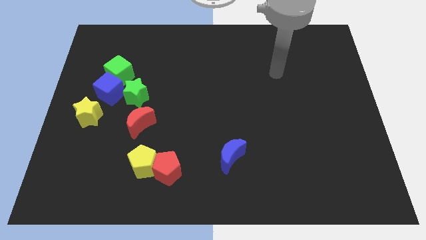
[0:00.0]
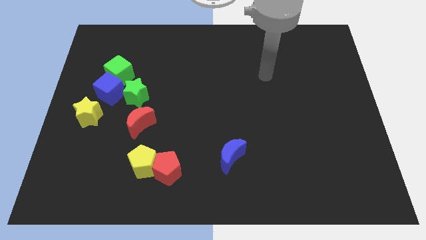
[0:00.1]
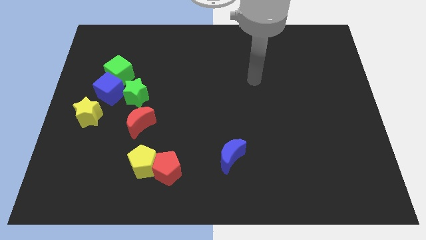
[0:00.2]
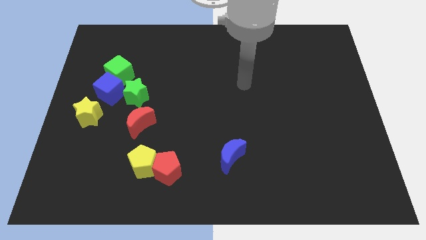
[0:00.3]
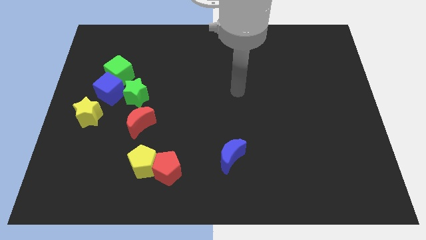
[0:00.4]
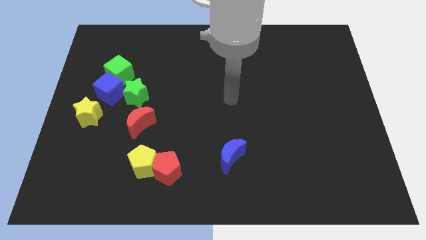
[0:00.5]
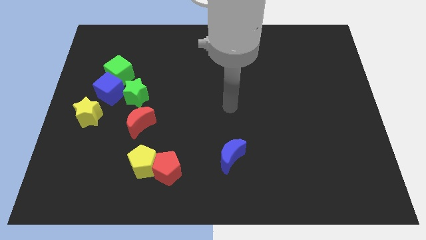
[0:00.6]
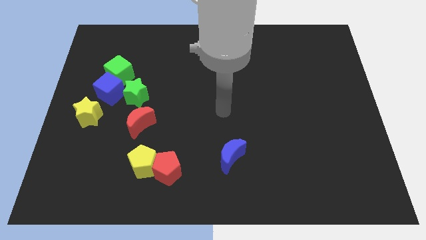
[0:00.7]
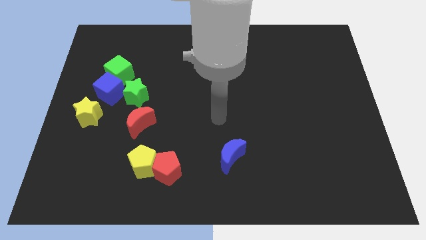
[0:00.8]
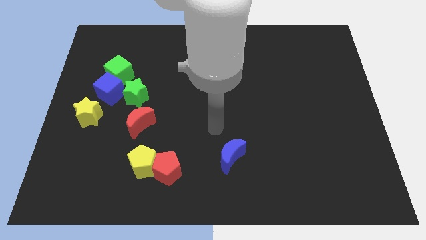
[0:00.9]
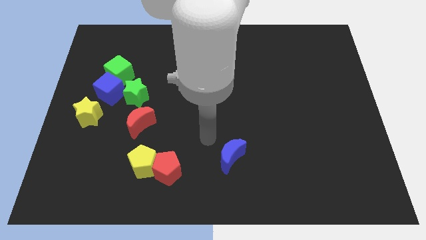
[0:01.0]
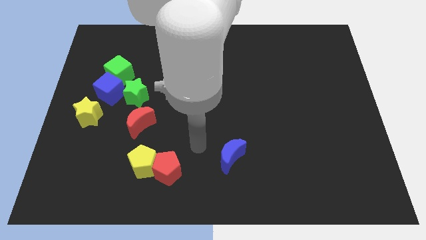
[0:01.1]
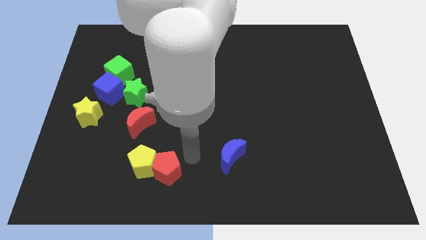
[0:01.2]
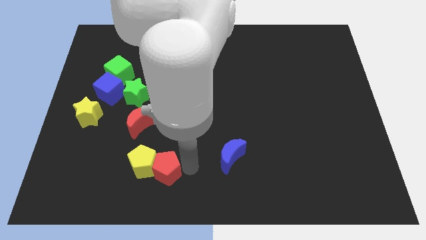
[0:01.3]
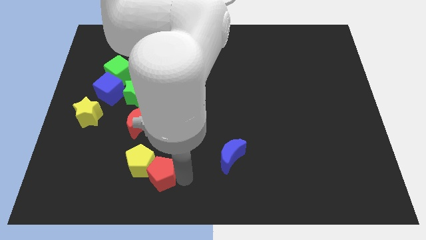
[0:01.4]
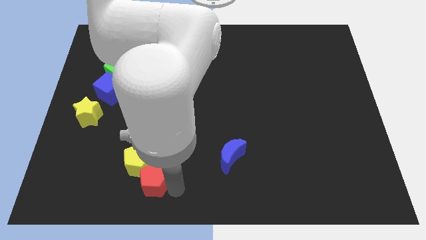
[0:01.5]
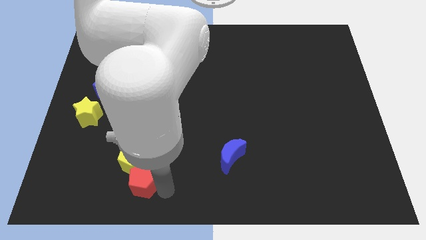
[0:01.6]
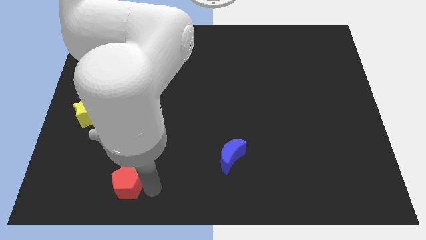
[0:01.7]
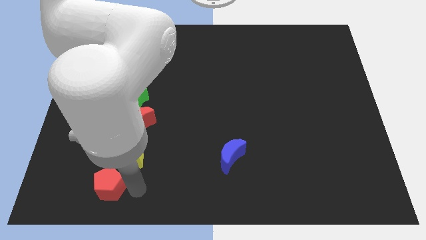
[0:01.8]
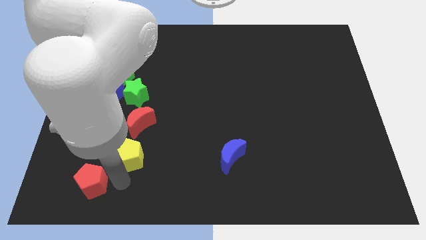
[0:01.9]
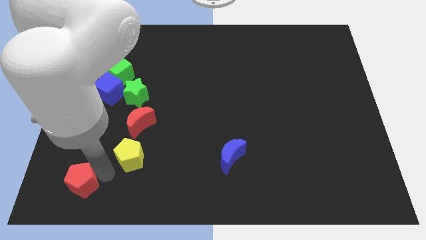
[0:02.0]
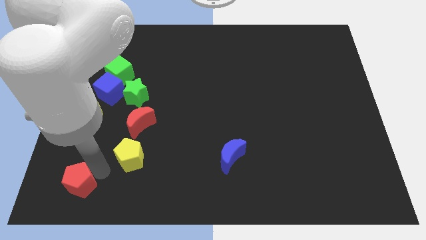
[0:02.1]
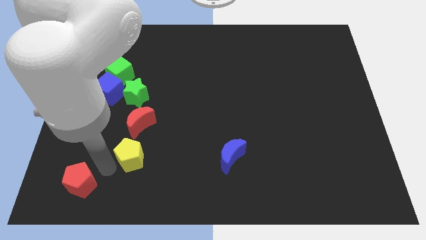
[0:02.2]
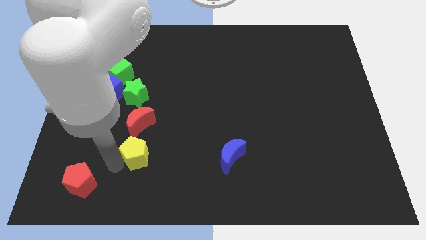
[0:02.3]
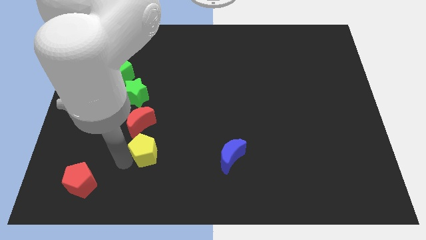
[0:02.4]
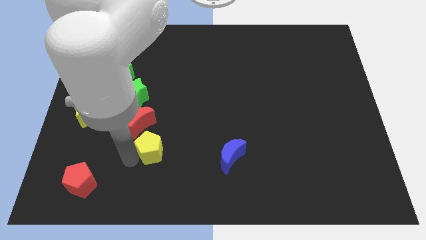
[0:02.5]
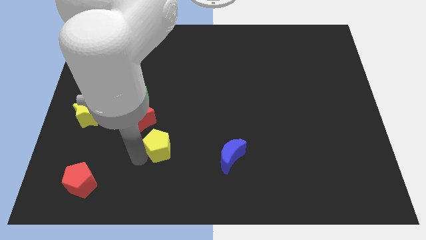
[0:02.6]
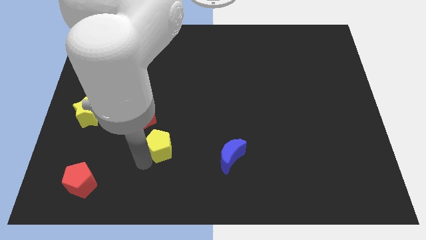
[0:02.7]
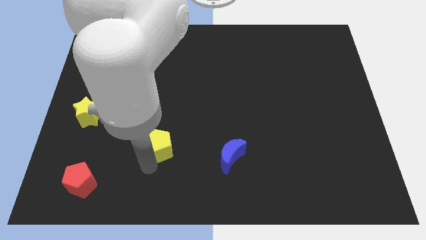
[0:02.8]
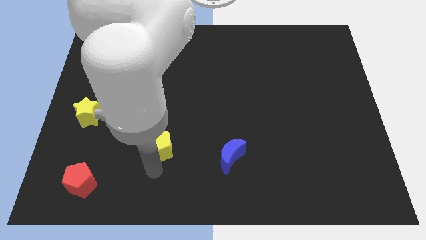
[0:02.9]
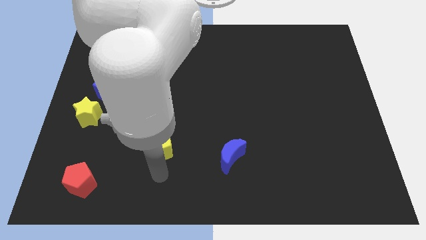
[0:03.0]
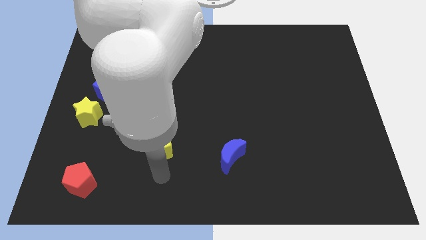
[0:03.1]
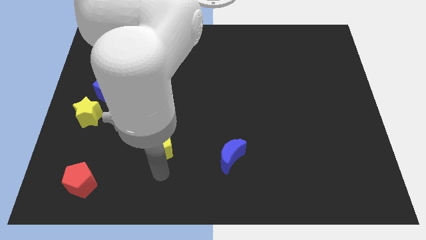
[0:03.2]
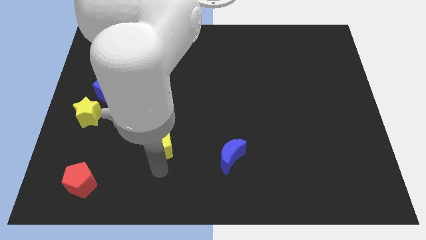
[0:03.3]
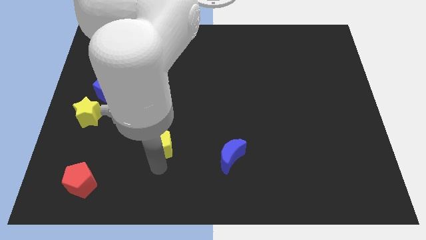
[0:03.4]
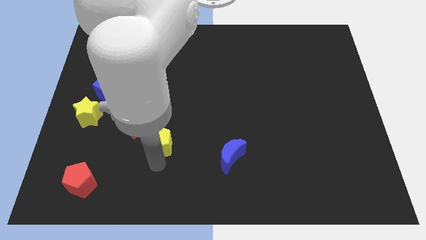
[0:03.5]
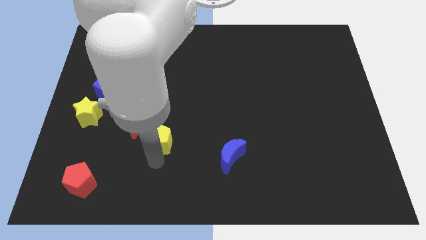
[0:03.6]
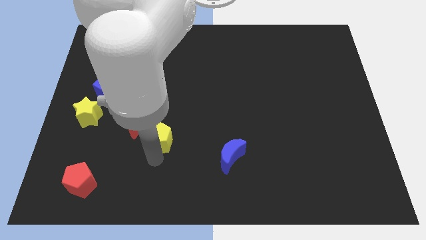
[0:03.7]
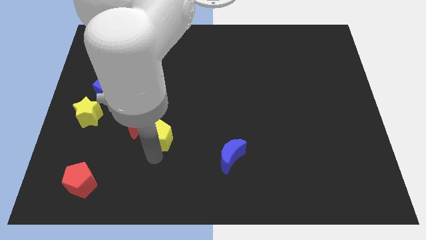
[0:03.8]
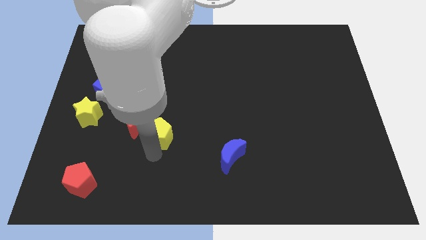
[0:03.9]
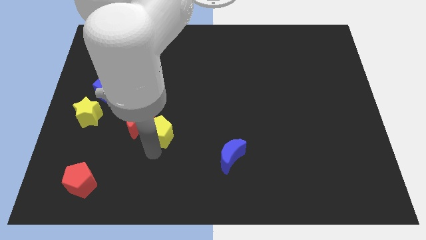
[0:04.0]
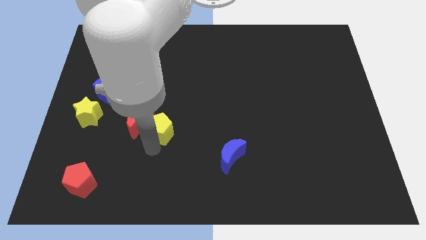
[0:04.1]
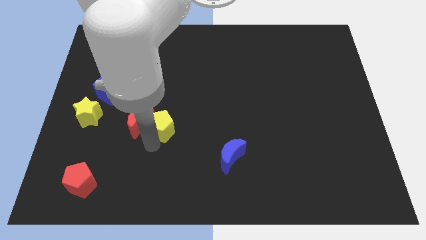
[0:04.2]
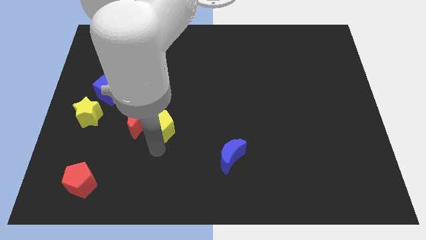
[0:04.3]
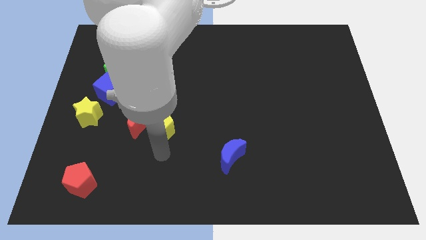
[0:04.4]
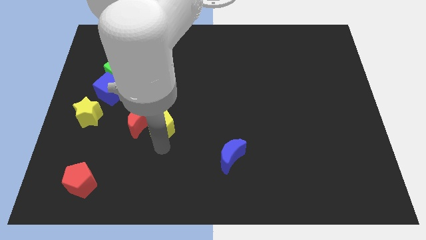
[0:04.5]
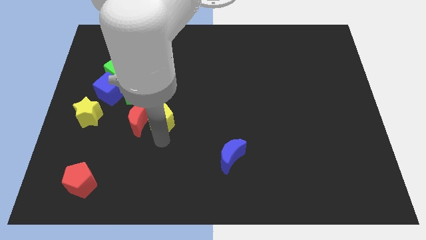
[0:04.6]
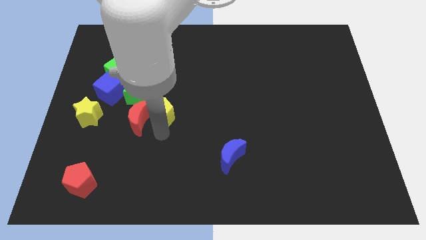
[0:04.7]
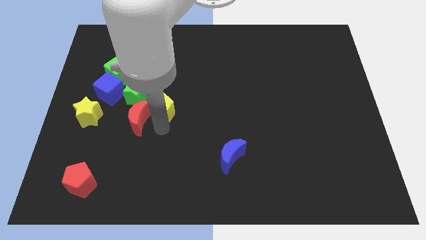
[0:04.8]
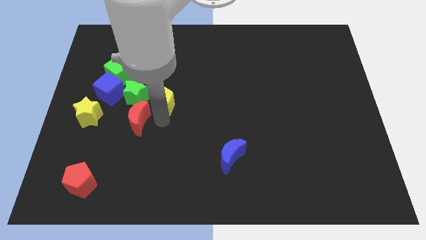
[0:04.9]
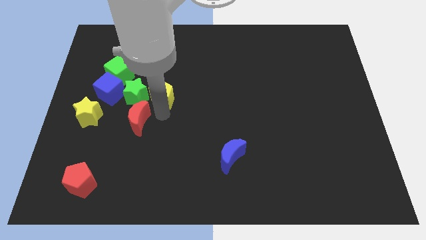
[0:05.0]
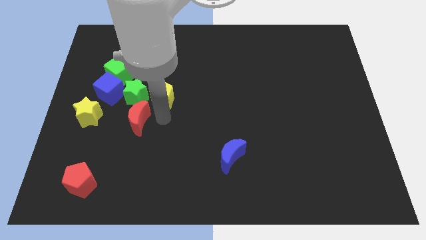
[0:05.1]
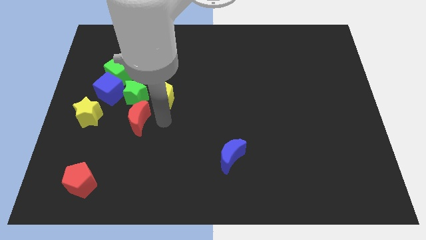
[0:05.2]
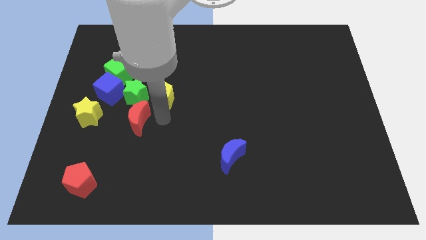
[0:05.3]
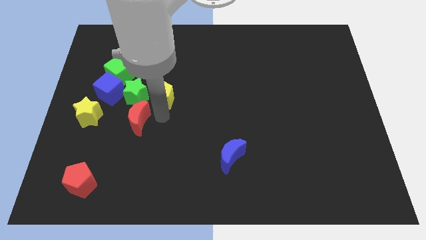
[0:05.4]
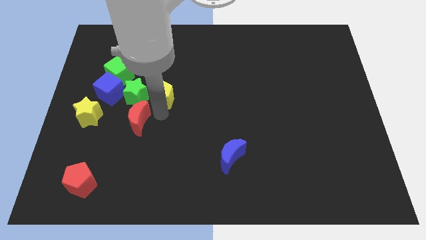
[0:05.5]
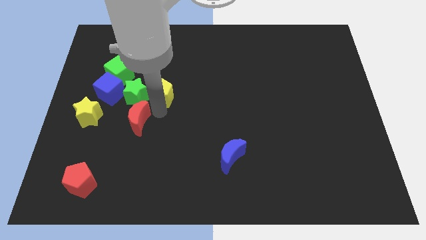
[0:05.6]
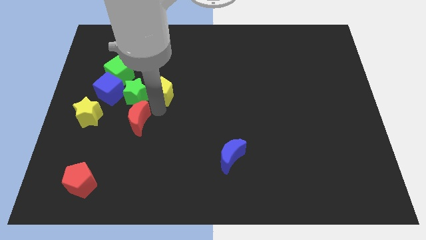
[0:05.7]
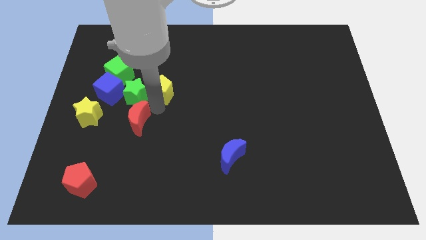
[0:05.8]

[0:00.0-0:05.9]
push the yellow pentagon up

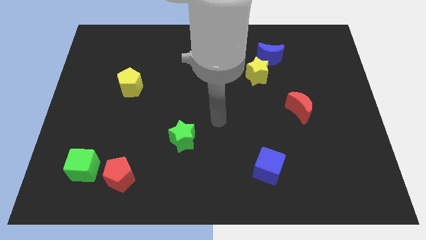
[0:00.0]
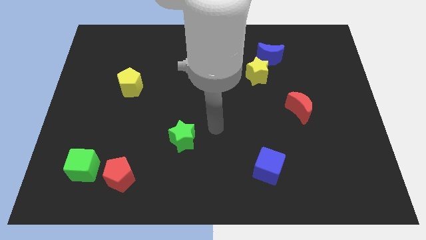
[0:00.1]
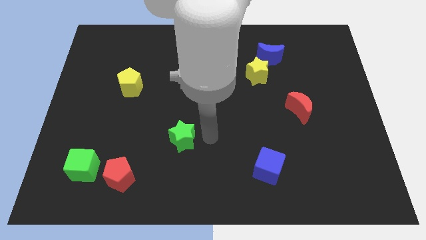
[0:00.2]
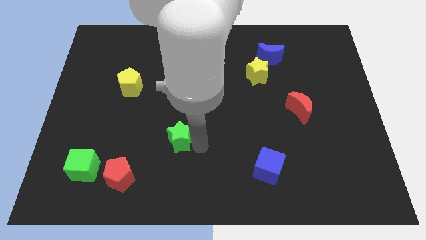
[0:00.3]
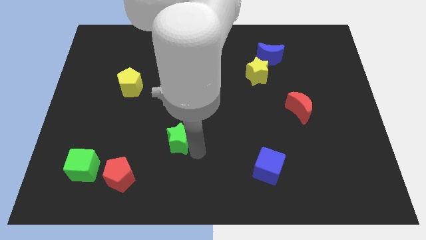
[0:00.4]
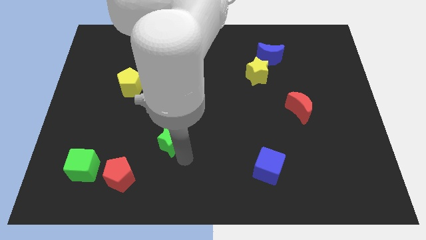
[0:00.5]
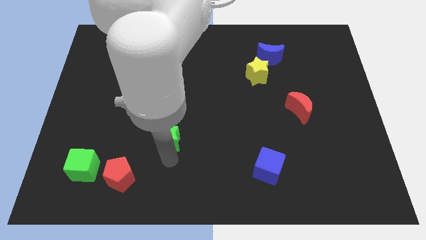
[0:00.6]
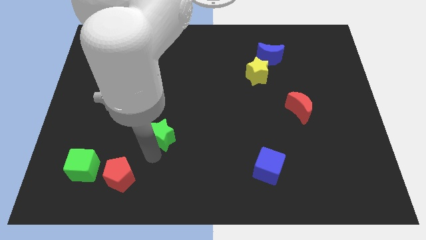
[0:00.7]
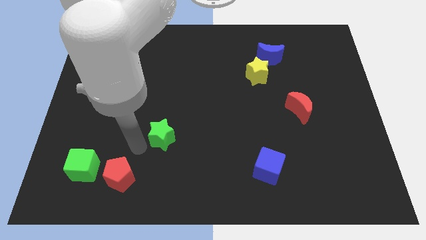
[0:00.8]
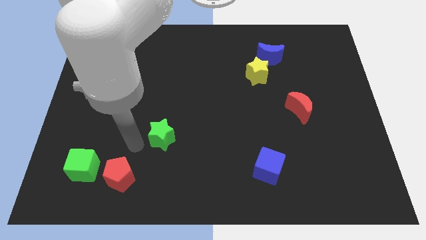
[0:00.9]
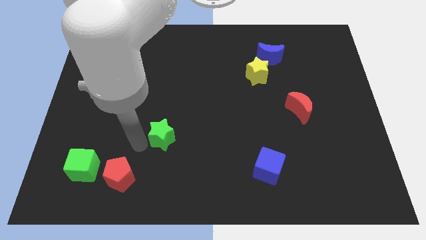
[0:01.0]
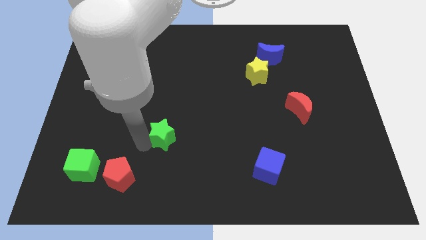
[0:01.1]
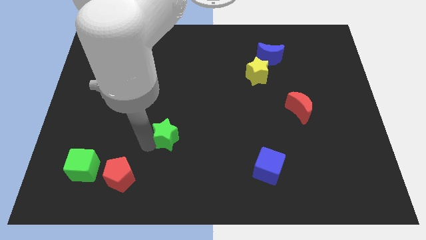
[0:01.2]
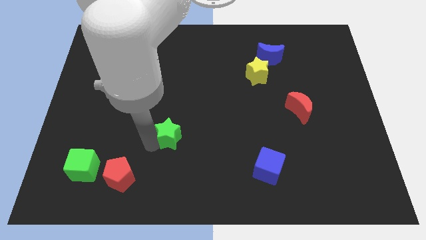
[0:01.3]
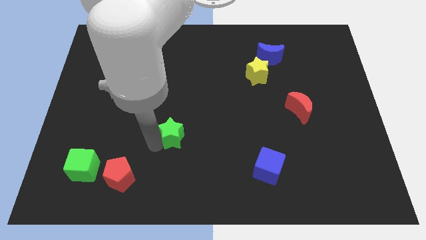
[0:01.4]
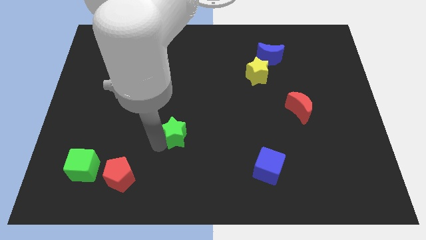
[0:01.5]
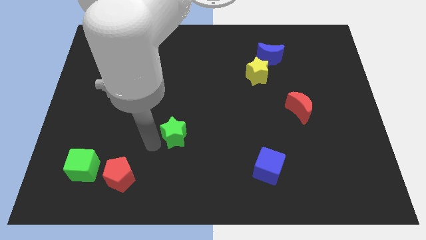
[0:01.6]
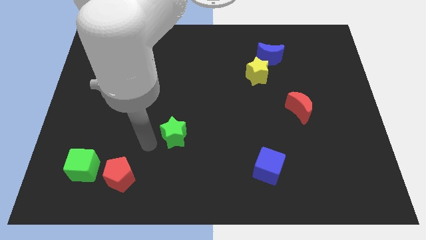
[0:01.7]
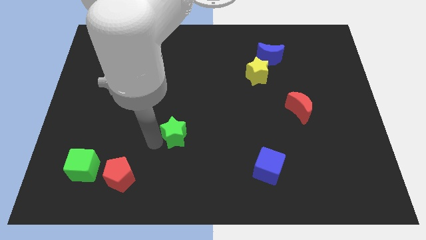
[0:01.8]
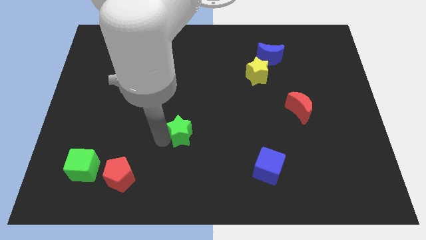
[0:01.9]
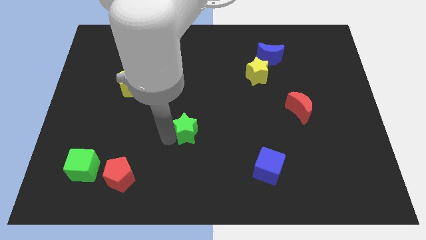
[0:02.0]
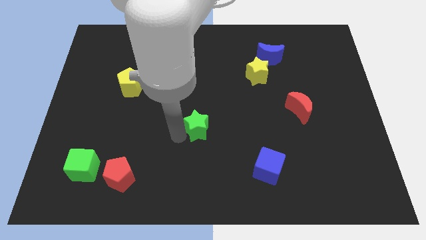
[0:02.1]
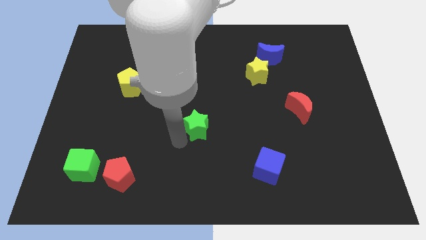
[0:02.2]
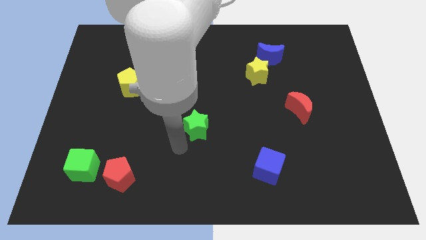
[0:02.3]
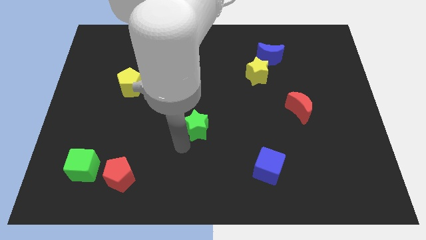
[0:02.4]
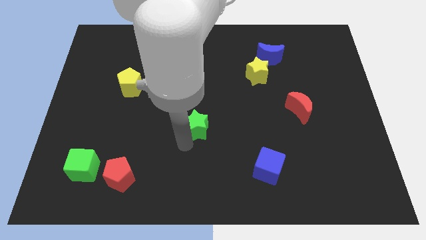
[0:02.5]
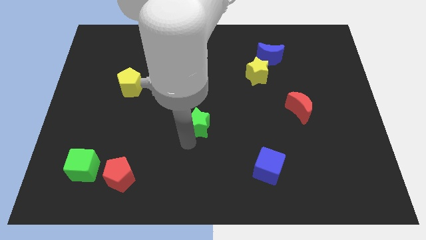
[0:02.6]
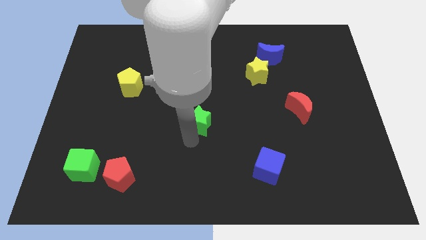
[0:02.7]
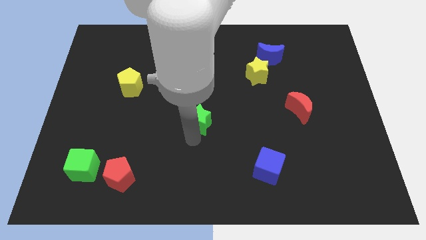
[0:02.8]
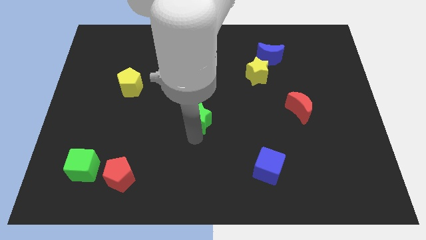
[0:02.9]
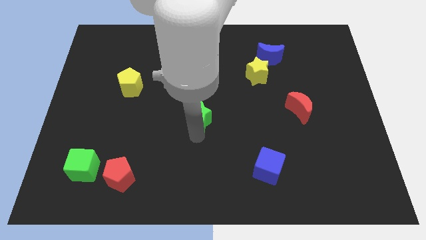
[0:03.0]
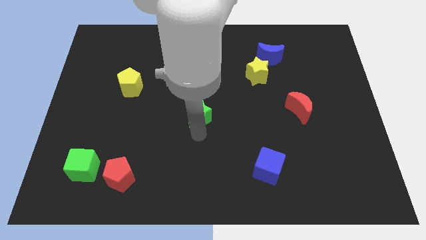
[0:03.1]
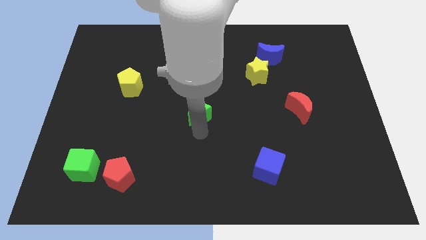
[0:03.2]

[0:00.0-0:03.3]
slide the green star up and right diagonally somewhat
